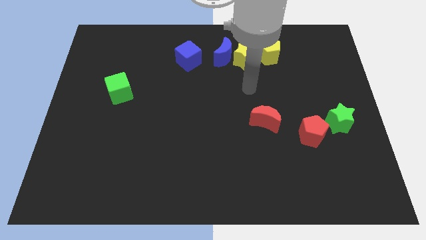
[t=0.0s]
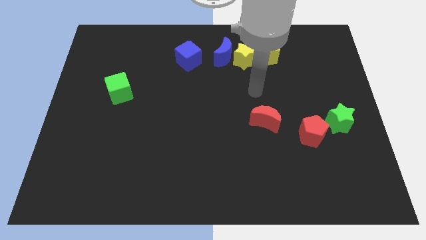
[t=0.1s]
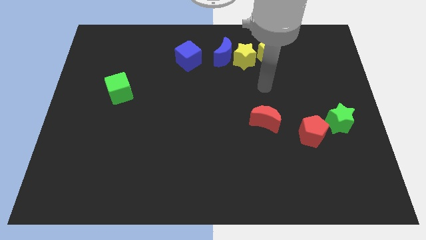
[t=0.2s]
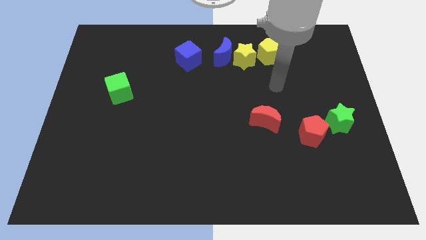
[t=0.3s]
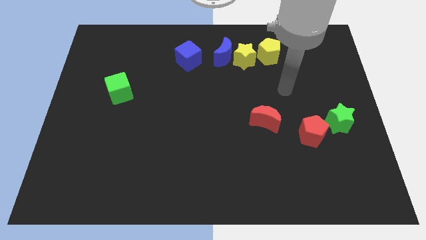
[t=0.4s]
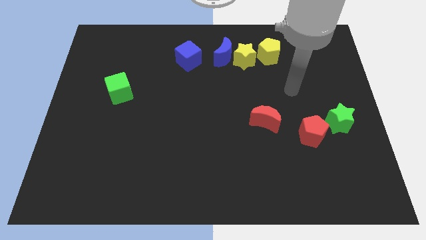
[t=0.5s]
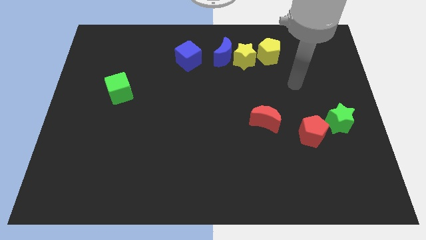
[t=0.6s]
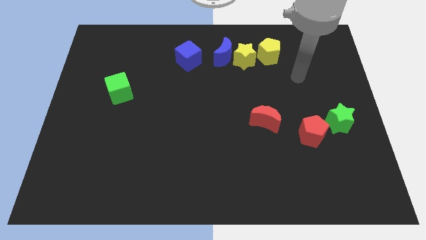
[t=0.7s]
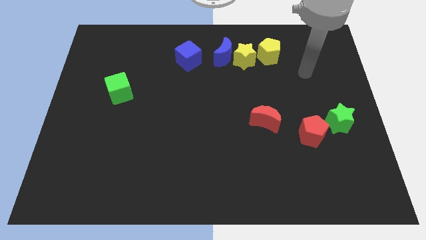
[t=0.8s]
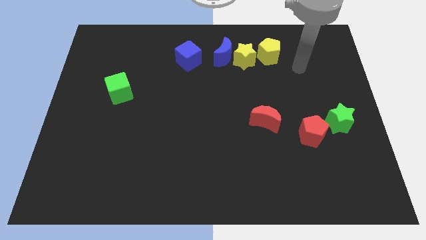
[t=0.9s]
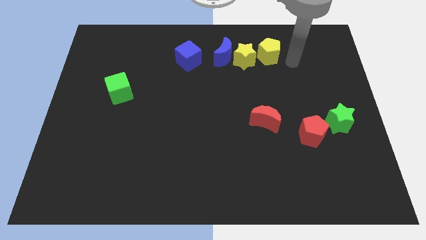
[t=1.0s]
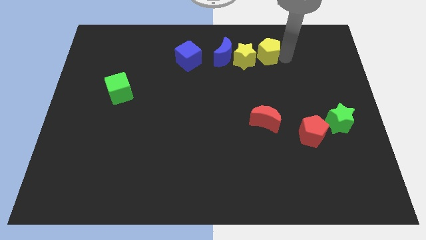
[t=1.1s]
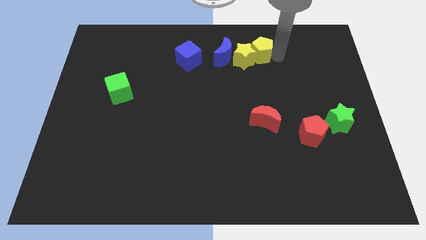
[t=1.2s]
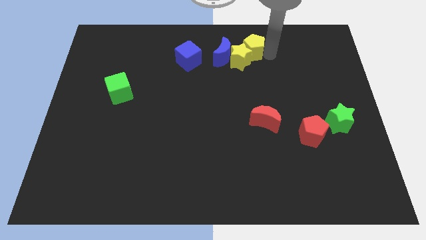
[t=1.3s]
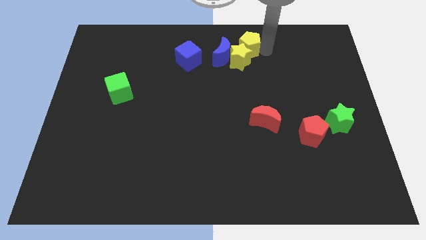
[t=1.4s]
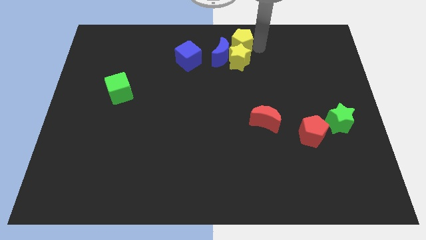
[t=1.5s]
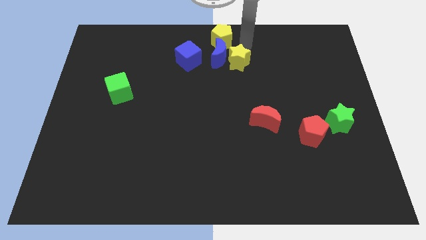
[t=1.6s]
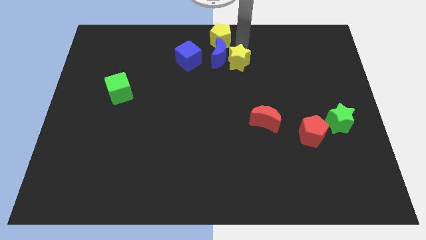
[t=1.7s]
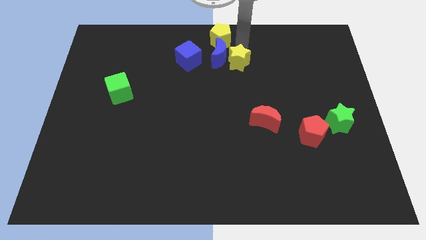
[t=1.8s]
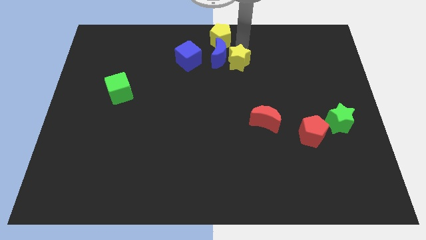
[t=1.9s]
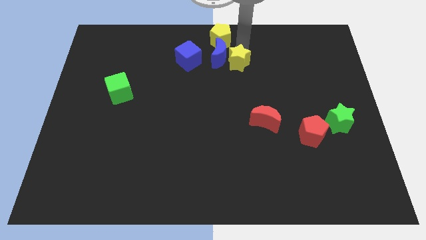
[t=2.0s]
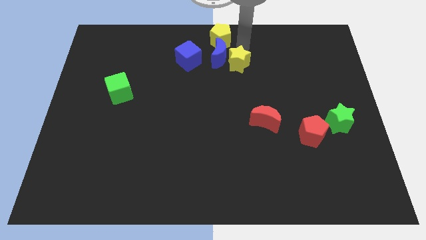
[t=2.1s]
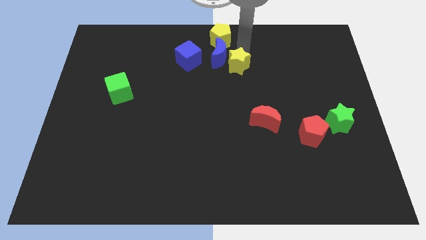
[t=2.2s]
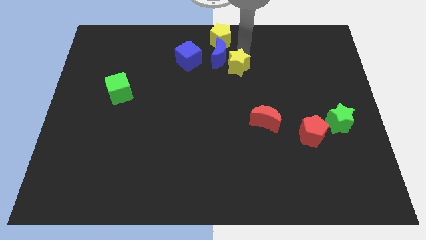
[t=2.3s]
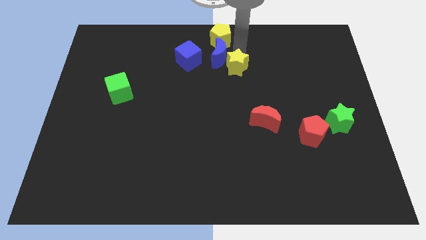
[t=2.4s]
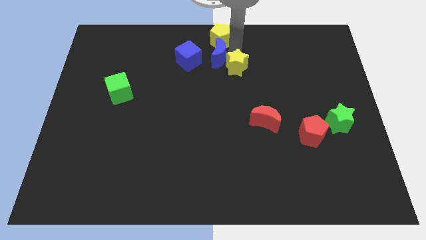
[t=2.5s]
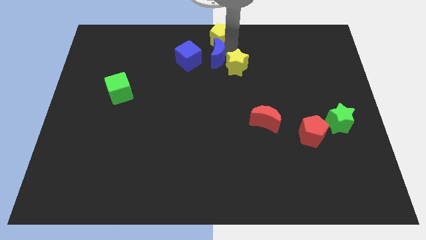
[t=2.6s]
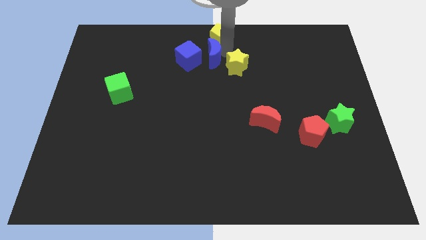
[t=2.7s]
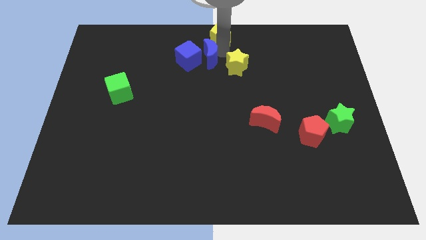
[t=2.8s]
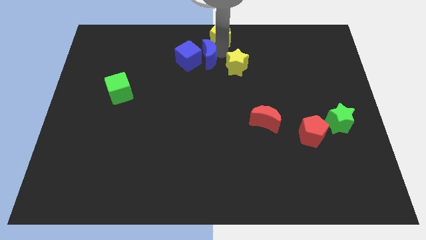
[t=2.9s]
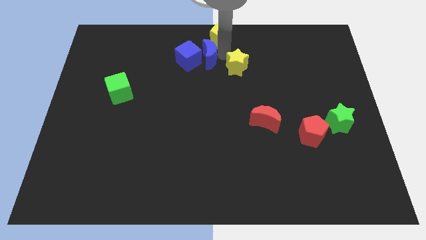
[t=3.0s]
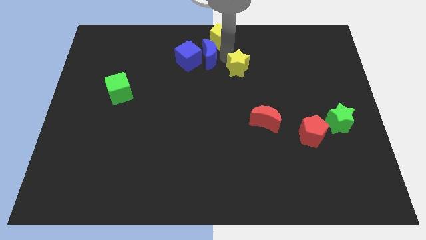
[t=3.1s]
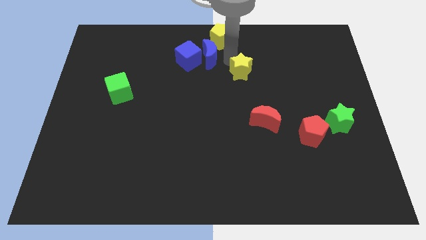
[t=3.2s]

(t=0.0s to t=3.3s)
move the yellow star away from the blue moon and yellow pentagon

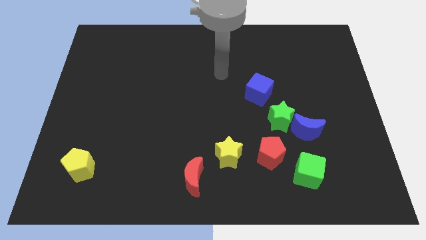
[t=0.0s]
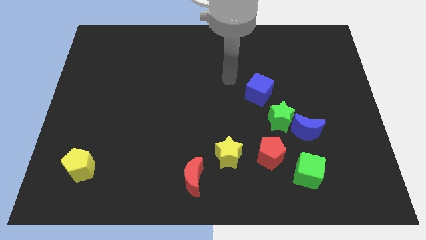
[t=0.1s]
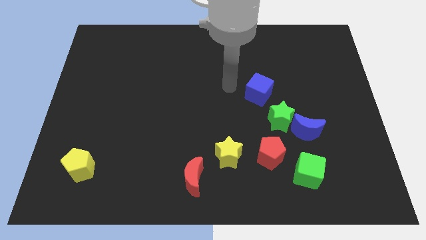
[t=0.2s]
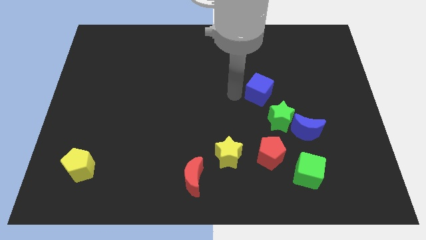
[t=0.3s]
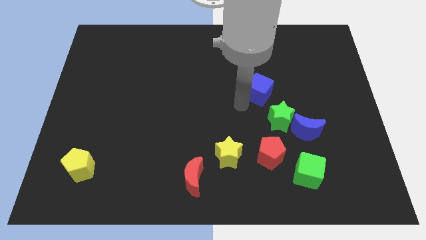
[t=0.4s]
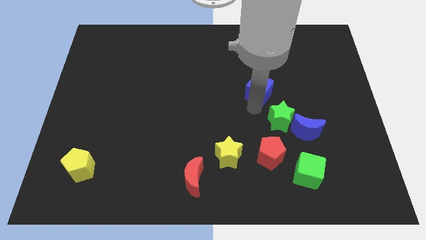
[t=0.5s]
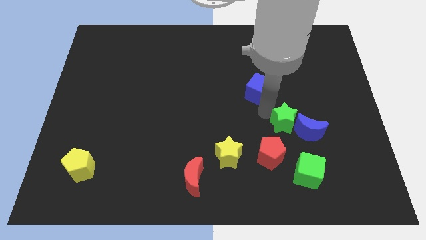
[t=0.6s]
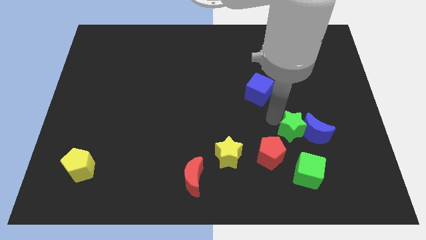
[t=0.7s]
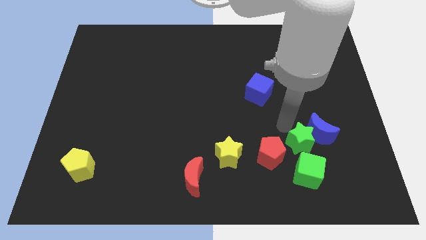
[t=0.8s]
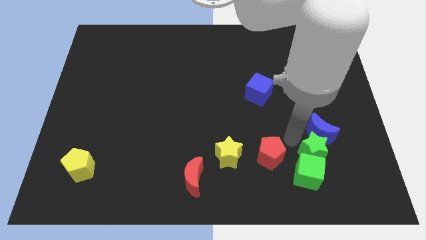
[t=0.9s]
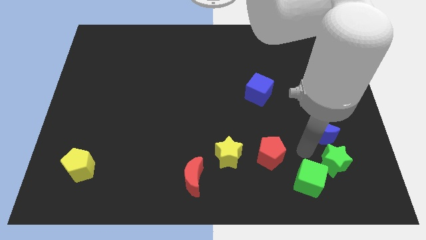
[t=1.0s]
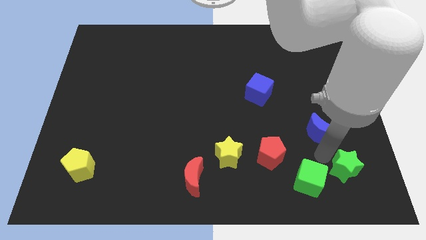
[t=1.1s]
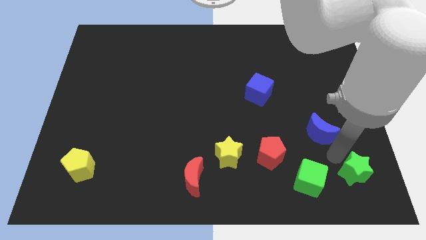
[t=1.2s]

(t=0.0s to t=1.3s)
move the blue moon away from the green star

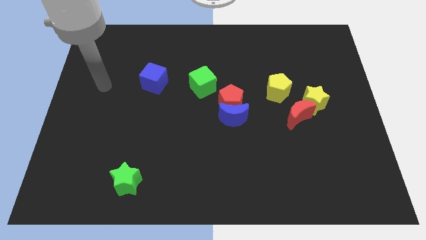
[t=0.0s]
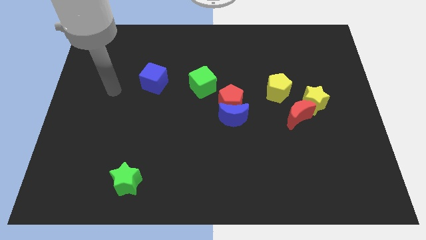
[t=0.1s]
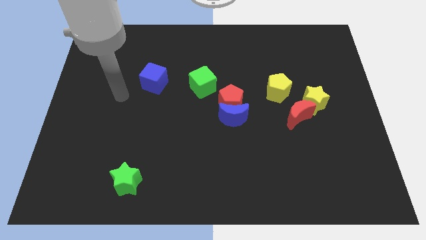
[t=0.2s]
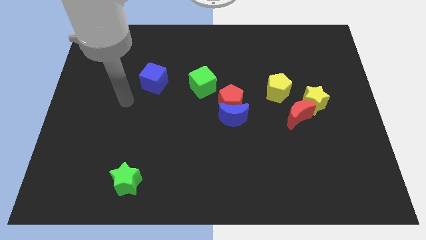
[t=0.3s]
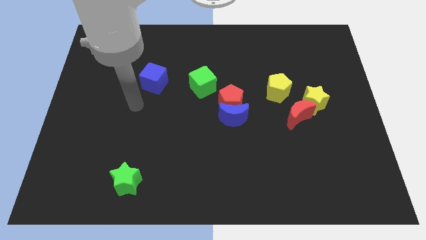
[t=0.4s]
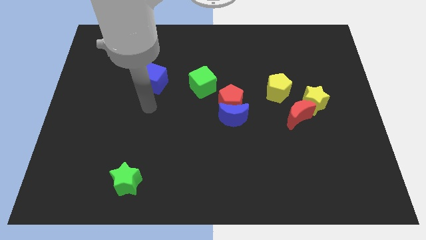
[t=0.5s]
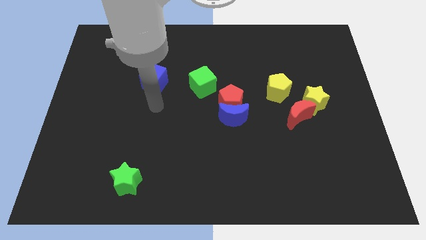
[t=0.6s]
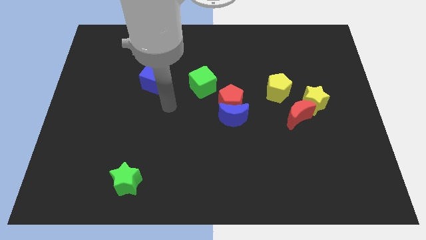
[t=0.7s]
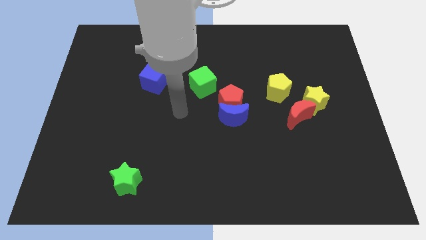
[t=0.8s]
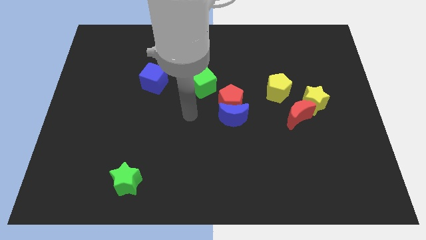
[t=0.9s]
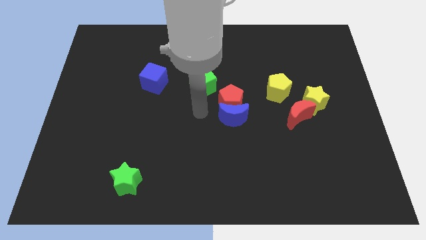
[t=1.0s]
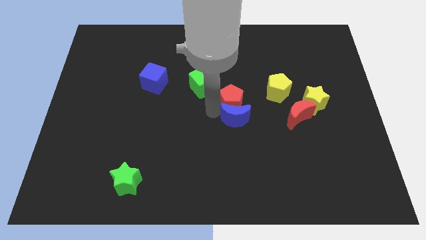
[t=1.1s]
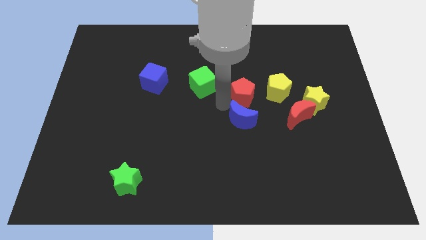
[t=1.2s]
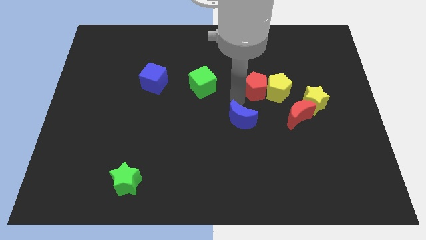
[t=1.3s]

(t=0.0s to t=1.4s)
separate the blue moon from the red pentagon

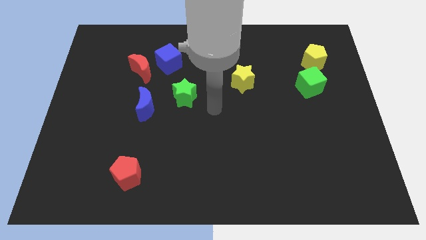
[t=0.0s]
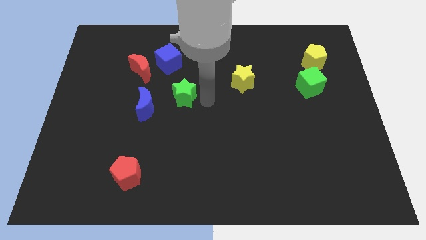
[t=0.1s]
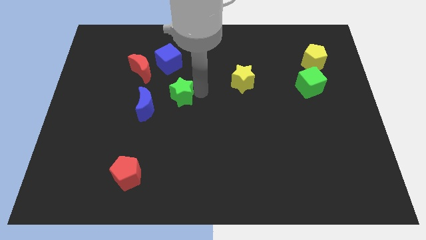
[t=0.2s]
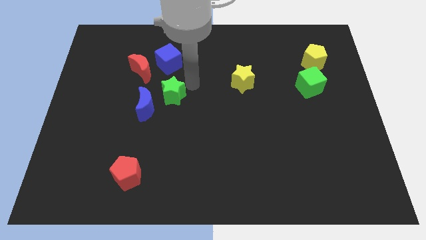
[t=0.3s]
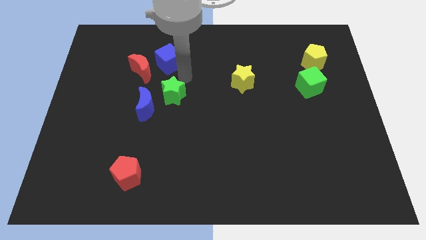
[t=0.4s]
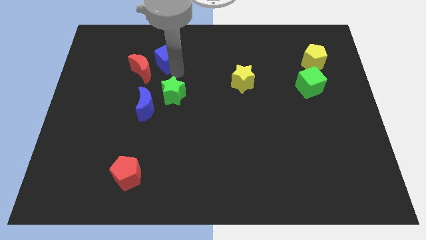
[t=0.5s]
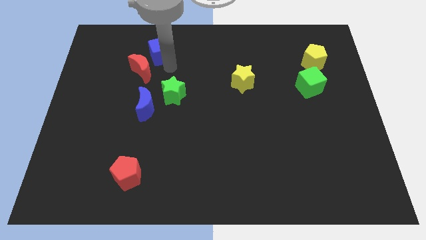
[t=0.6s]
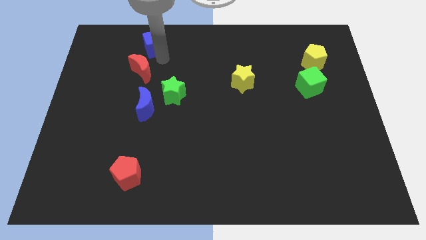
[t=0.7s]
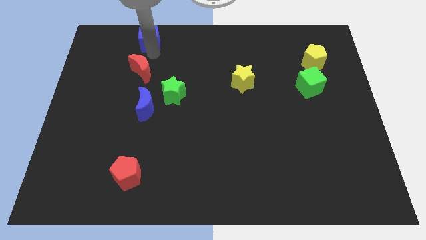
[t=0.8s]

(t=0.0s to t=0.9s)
move the red moon away from the blue cube

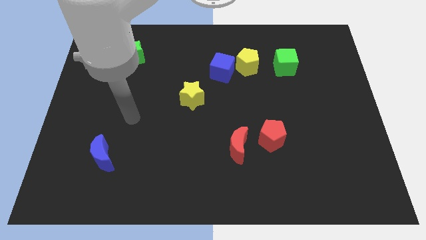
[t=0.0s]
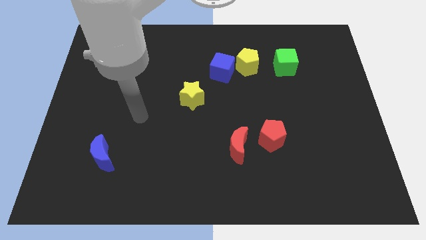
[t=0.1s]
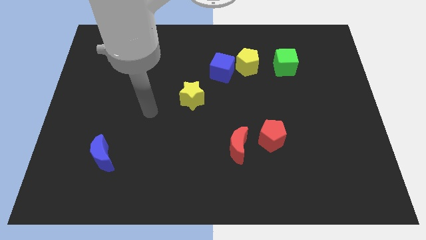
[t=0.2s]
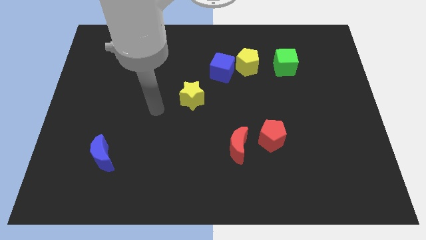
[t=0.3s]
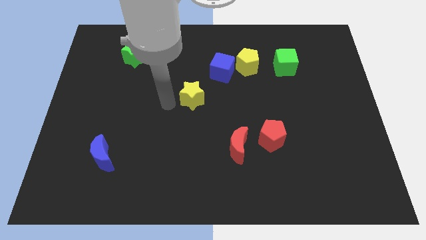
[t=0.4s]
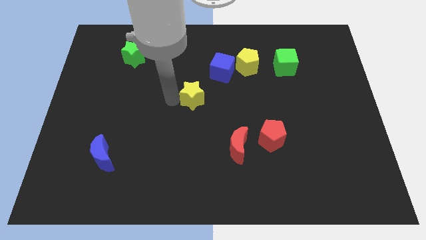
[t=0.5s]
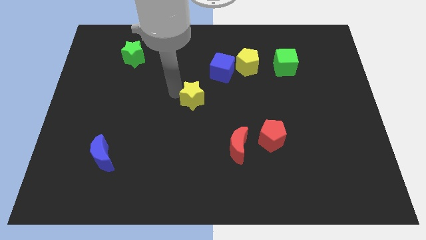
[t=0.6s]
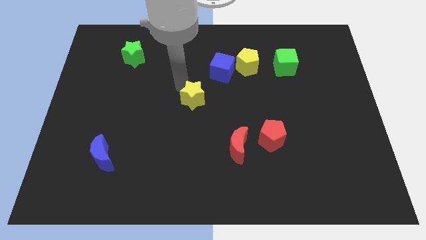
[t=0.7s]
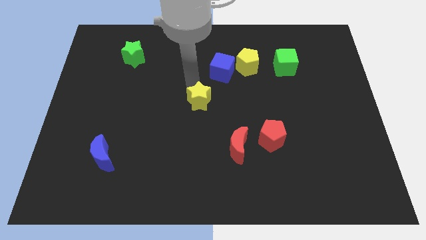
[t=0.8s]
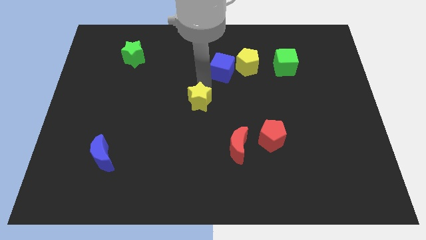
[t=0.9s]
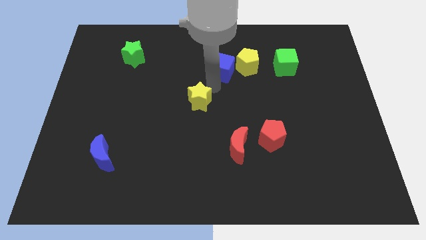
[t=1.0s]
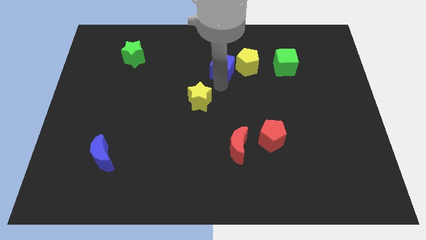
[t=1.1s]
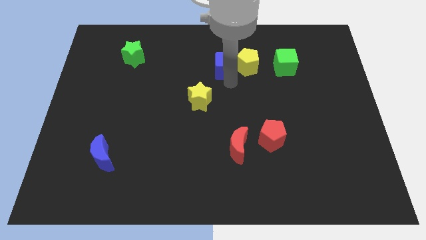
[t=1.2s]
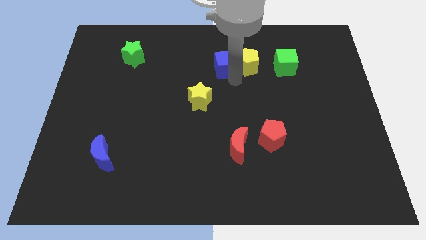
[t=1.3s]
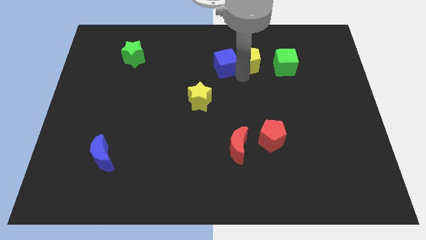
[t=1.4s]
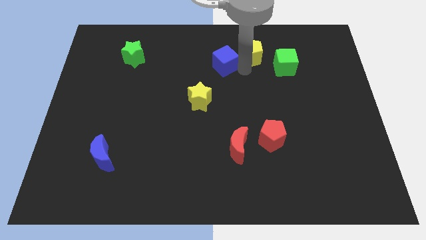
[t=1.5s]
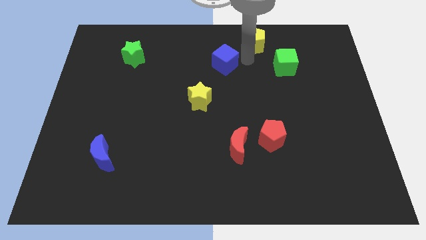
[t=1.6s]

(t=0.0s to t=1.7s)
move the blue cube away from the yellow pentagon

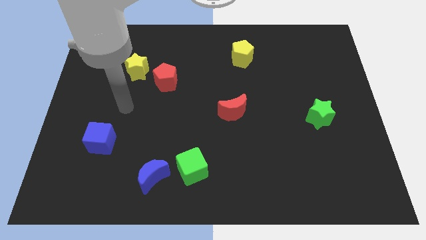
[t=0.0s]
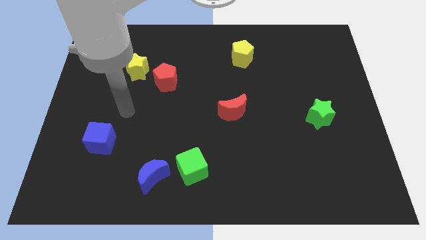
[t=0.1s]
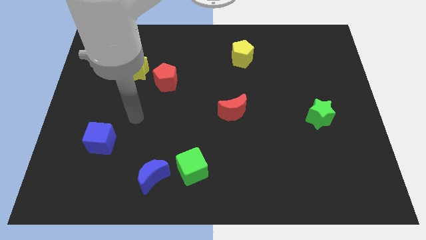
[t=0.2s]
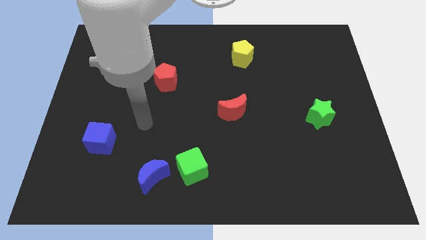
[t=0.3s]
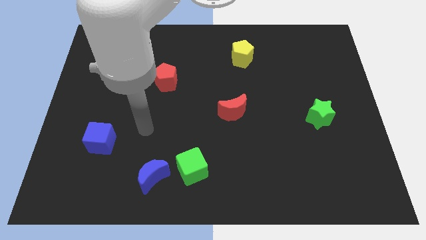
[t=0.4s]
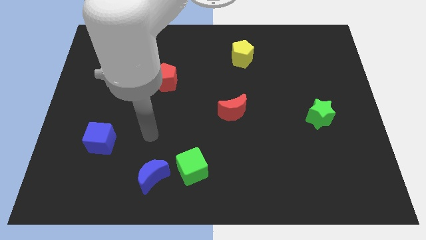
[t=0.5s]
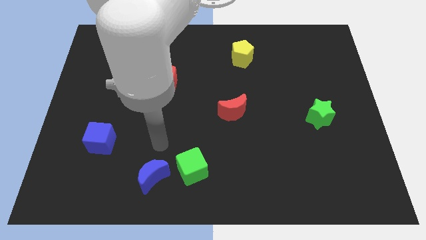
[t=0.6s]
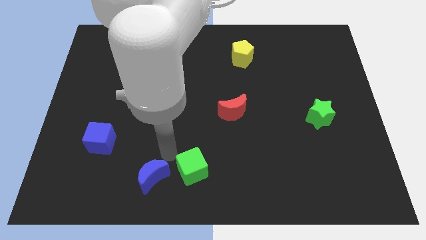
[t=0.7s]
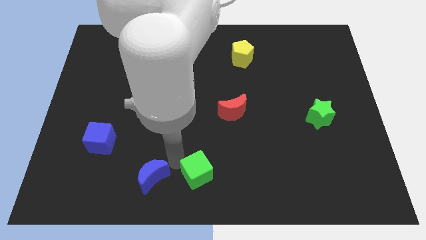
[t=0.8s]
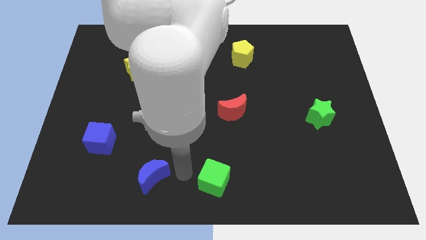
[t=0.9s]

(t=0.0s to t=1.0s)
pull the blue moon apart from the green cube
